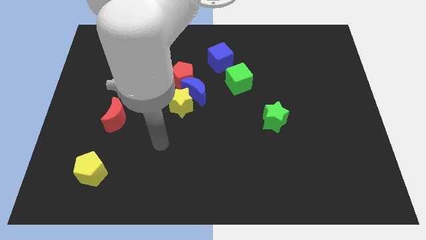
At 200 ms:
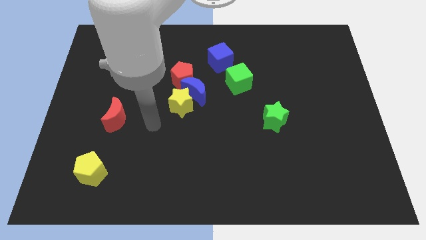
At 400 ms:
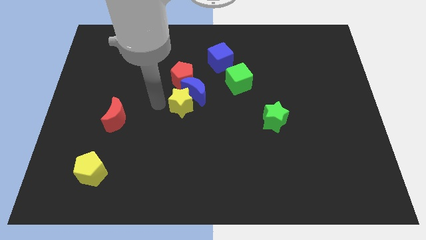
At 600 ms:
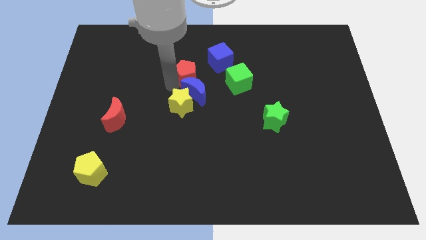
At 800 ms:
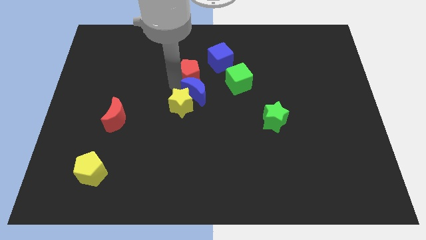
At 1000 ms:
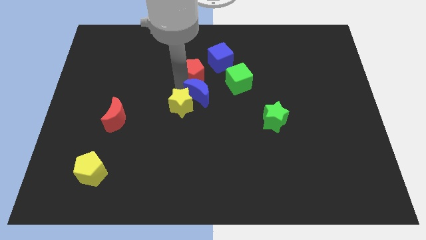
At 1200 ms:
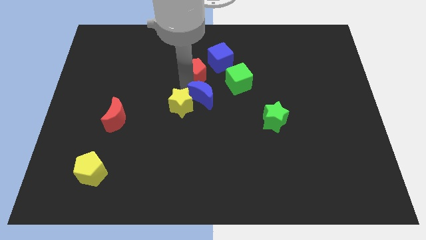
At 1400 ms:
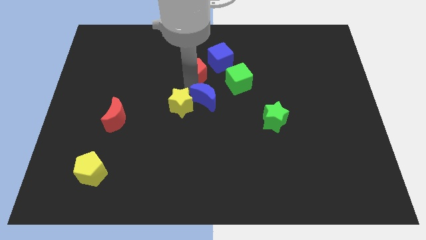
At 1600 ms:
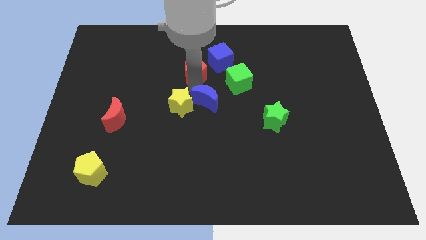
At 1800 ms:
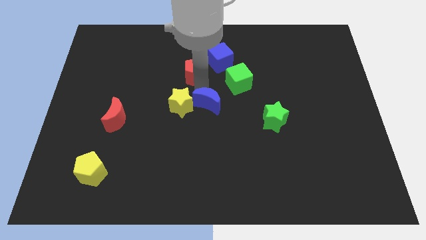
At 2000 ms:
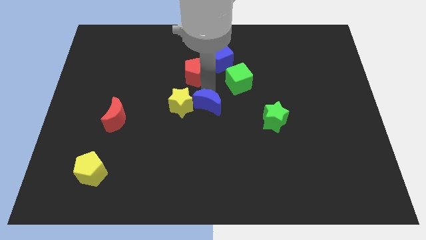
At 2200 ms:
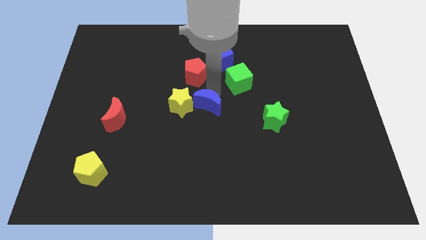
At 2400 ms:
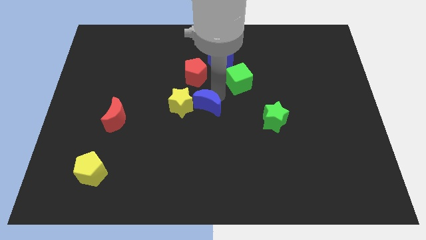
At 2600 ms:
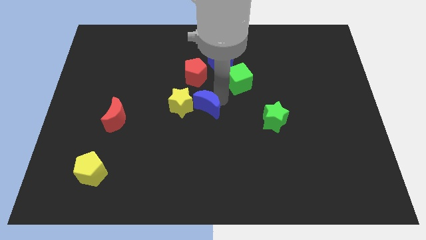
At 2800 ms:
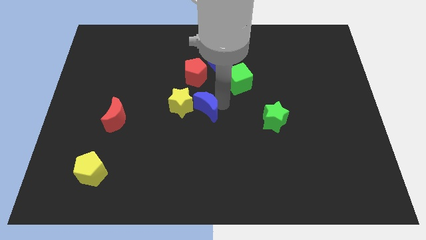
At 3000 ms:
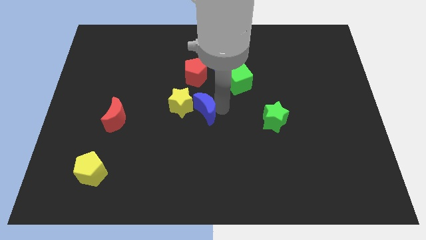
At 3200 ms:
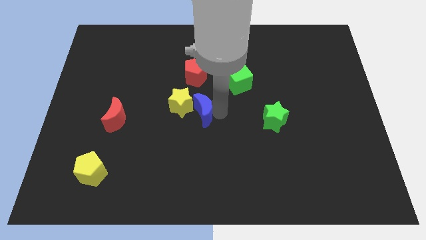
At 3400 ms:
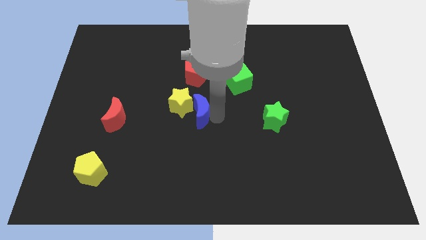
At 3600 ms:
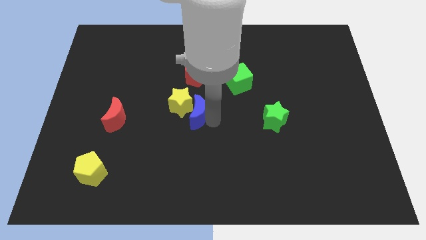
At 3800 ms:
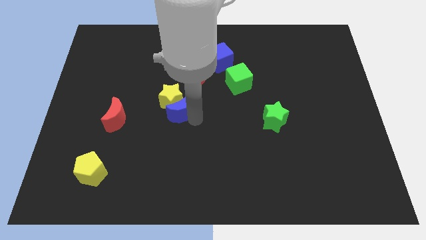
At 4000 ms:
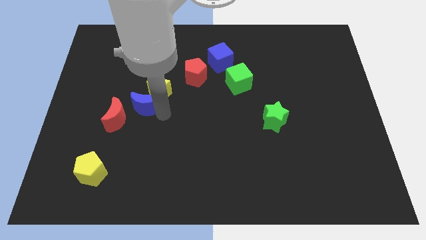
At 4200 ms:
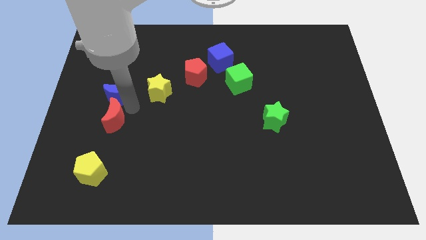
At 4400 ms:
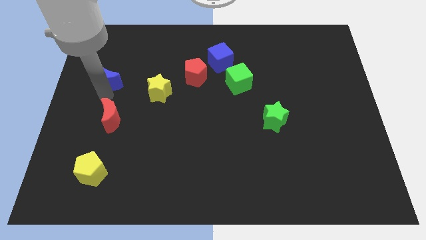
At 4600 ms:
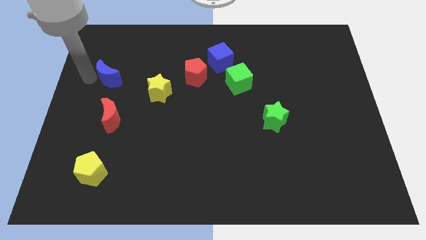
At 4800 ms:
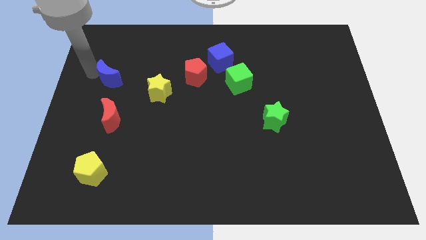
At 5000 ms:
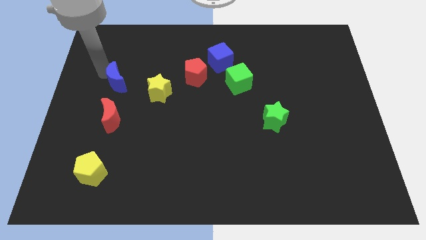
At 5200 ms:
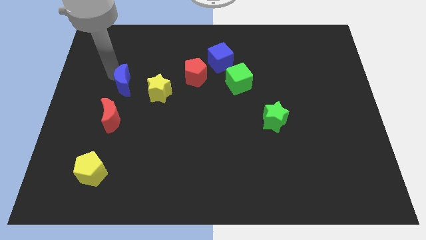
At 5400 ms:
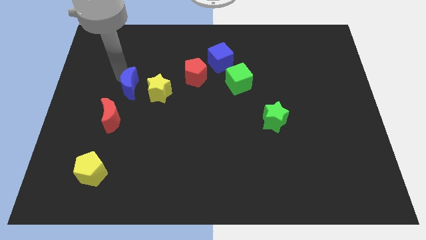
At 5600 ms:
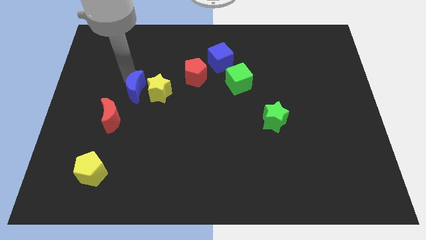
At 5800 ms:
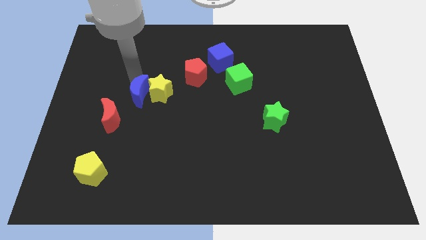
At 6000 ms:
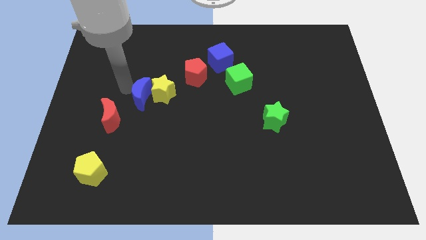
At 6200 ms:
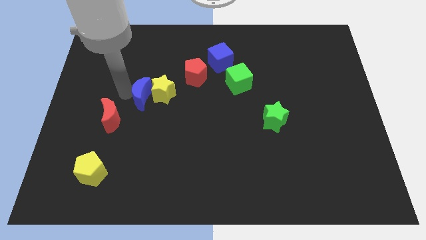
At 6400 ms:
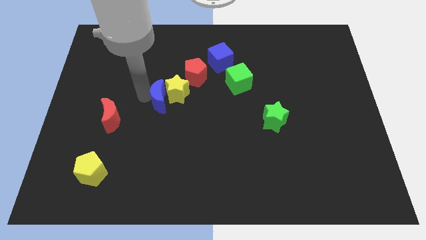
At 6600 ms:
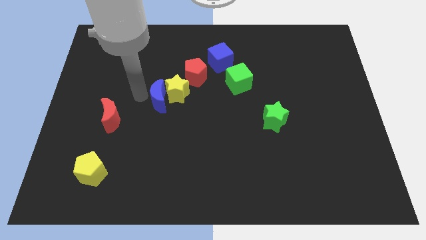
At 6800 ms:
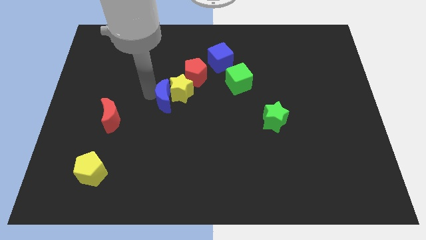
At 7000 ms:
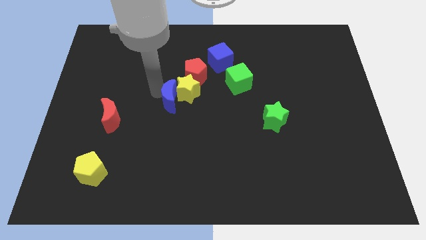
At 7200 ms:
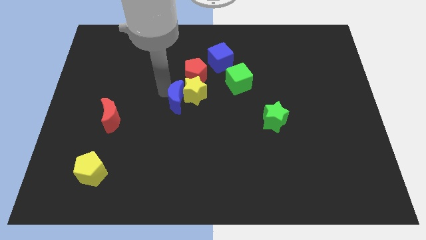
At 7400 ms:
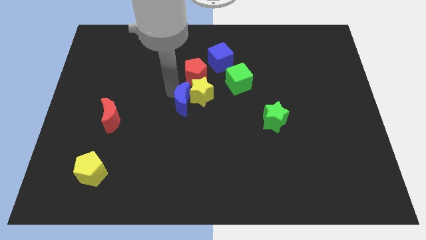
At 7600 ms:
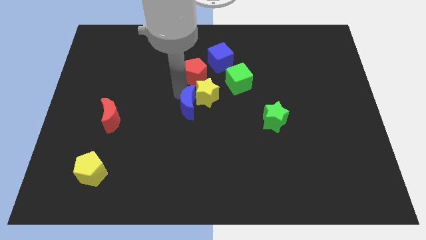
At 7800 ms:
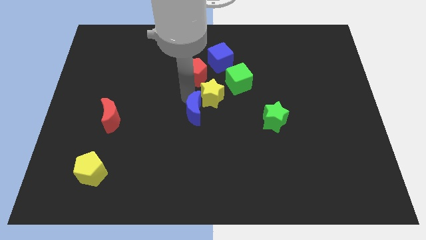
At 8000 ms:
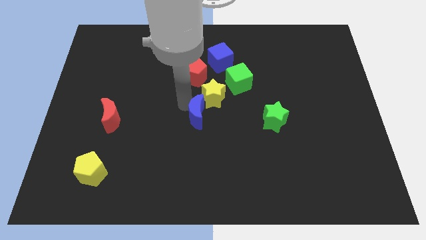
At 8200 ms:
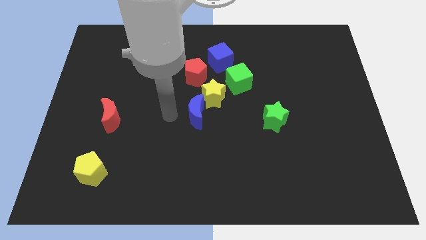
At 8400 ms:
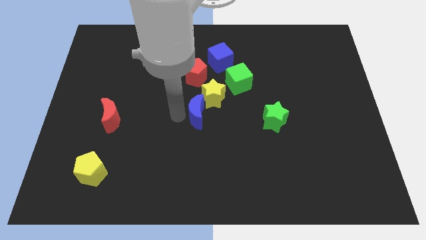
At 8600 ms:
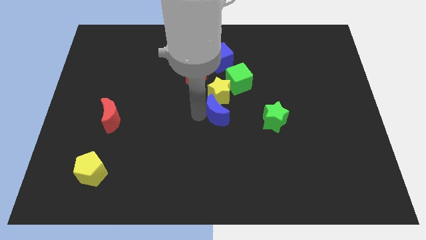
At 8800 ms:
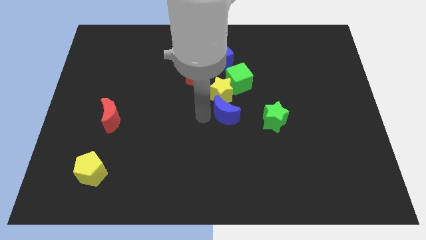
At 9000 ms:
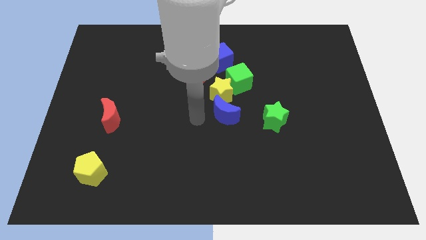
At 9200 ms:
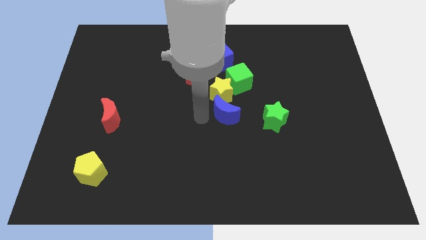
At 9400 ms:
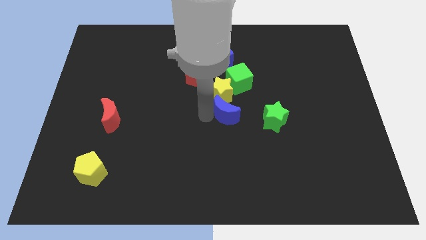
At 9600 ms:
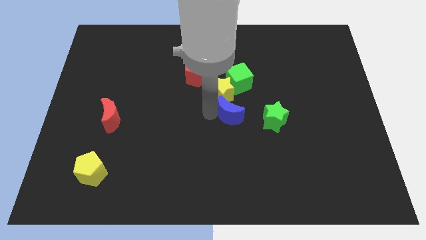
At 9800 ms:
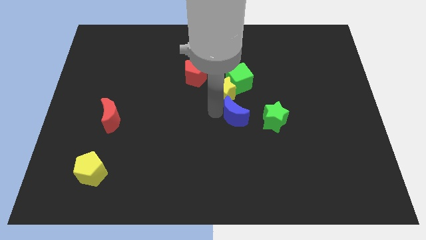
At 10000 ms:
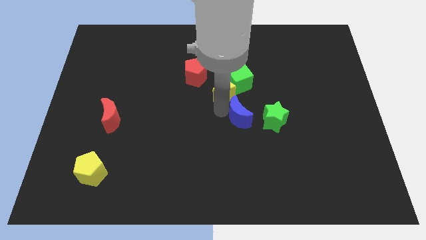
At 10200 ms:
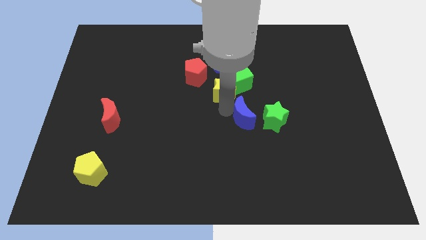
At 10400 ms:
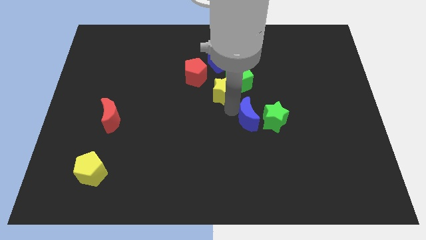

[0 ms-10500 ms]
push the blue moon to the green star

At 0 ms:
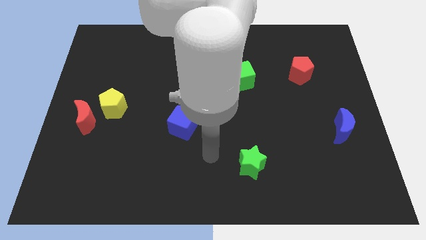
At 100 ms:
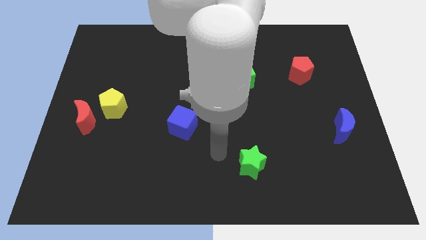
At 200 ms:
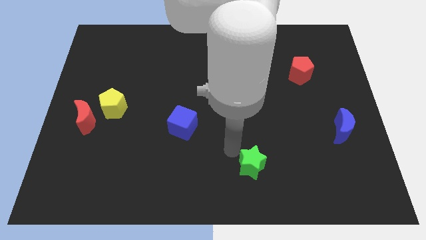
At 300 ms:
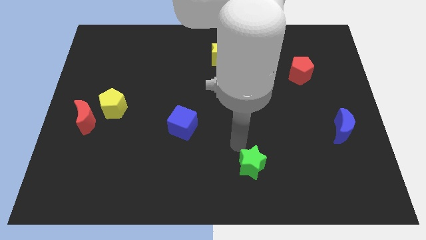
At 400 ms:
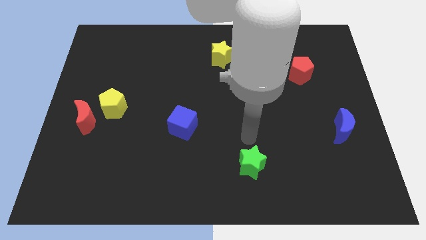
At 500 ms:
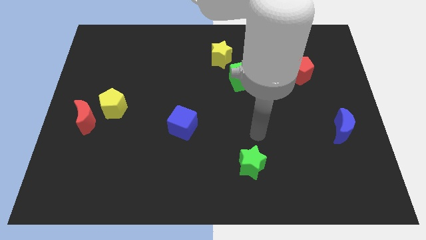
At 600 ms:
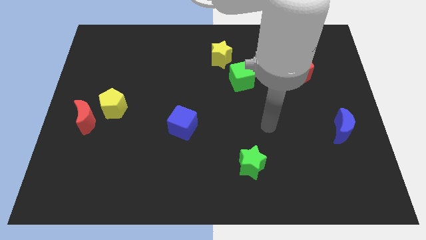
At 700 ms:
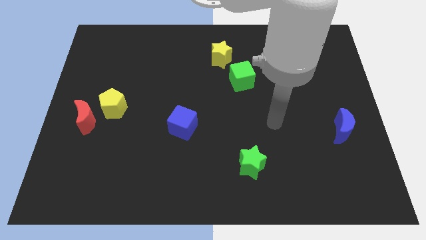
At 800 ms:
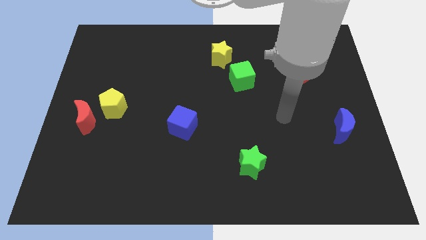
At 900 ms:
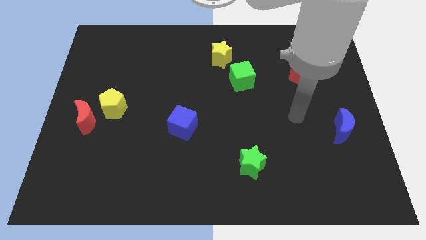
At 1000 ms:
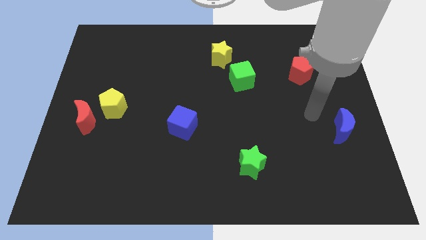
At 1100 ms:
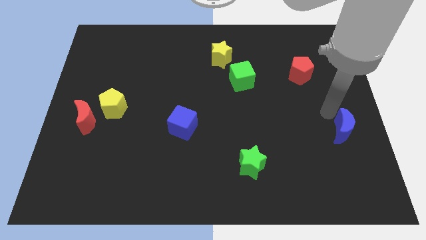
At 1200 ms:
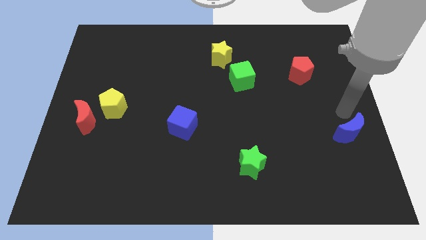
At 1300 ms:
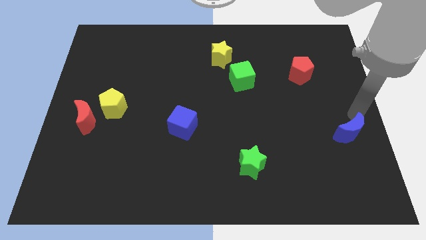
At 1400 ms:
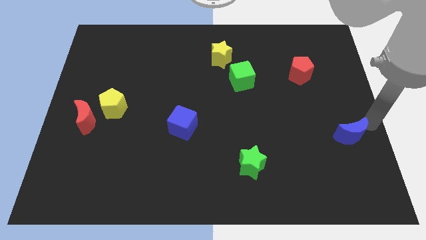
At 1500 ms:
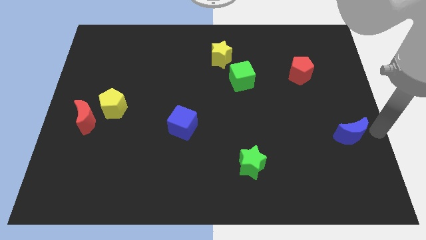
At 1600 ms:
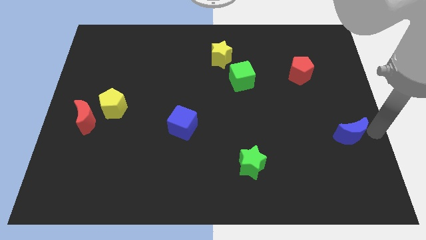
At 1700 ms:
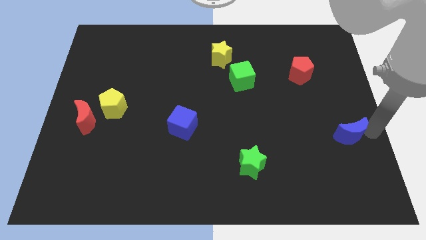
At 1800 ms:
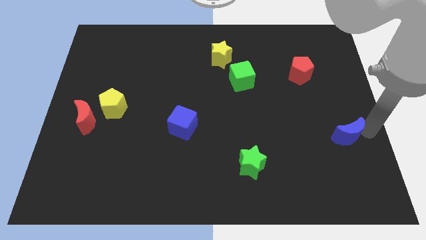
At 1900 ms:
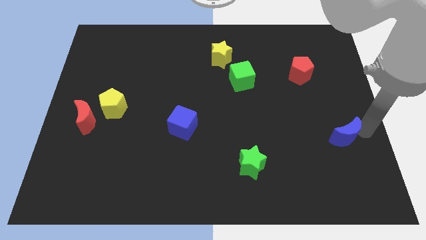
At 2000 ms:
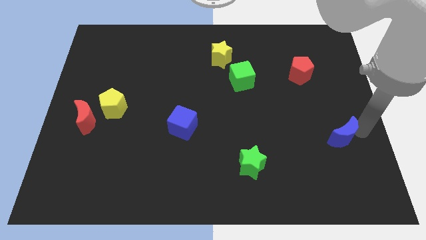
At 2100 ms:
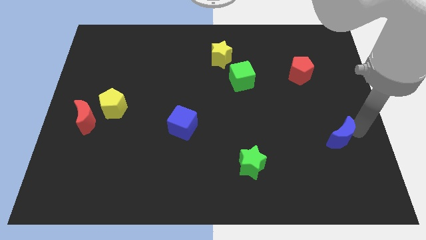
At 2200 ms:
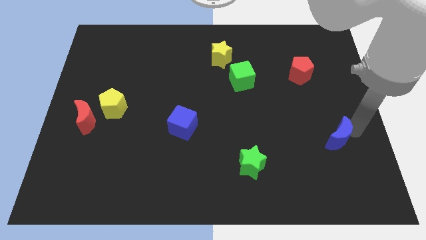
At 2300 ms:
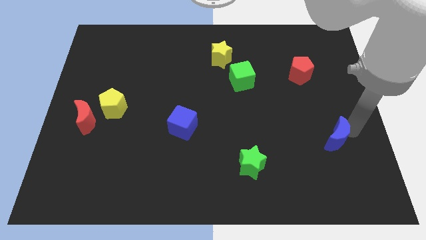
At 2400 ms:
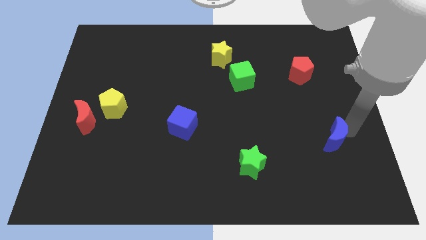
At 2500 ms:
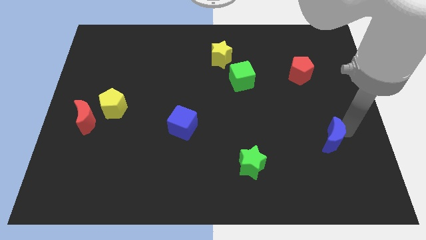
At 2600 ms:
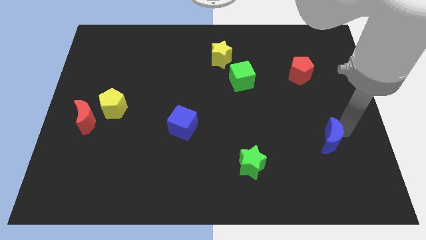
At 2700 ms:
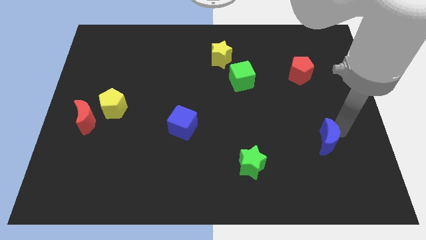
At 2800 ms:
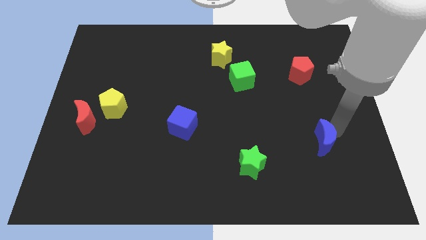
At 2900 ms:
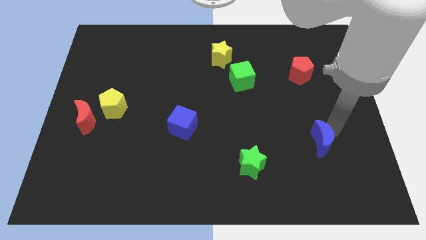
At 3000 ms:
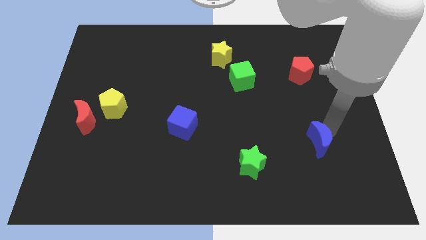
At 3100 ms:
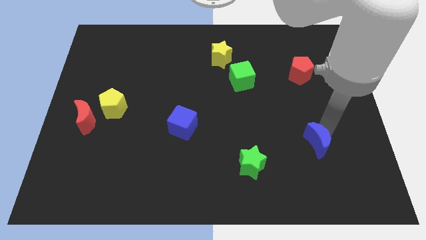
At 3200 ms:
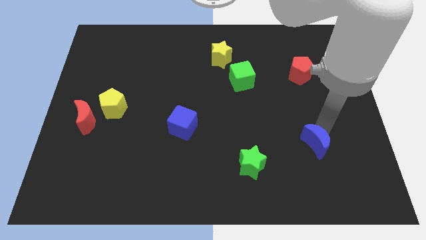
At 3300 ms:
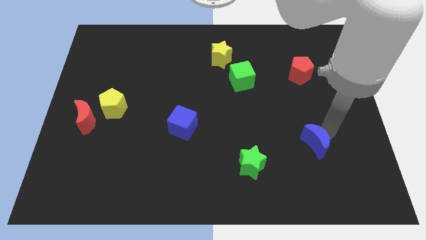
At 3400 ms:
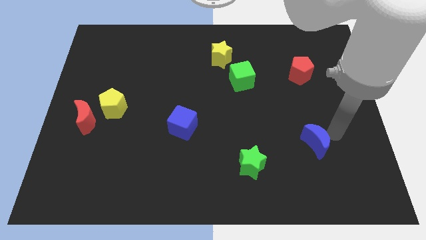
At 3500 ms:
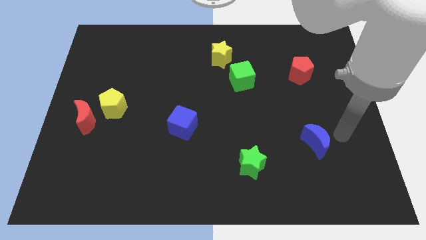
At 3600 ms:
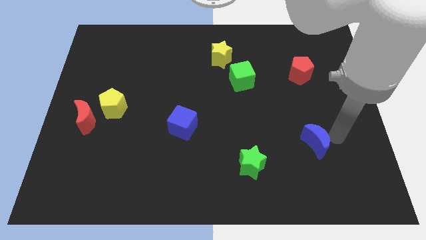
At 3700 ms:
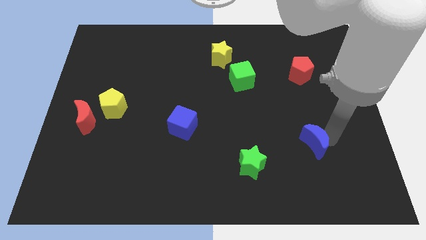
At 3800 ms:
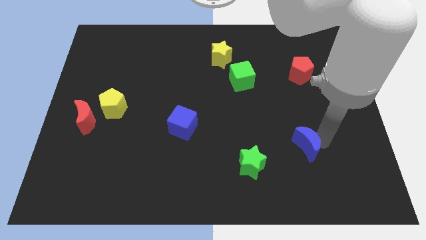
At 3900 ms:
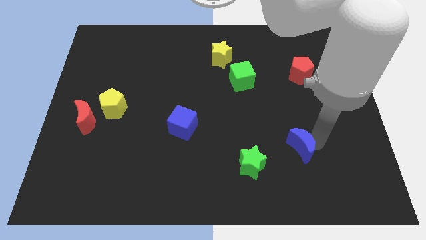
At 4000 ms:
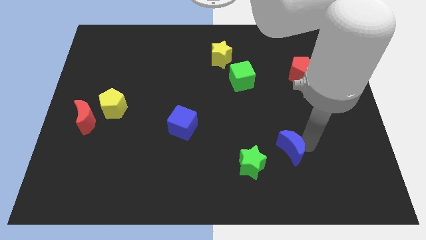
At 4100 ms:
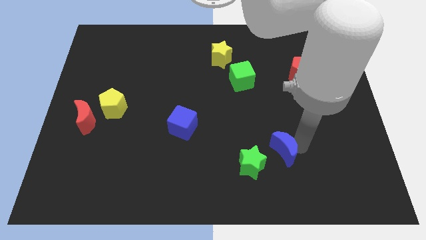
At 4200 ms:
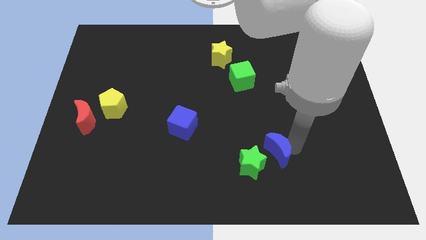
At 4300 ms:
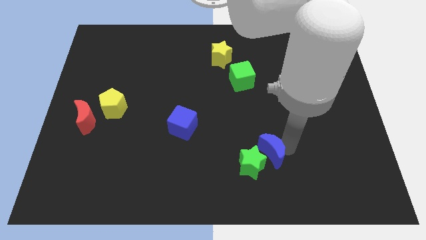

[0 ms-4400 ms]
put the blue moon to the green star
